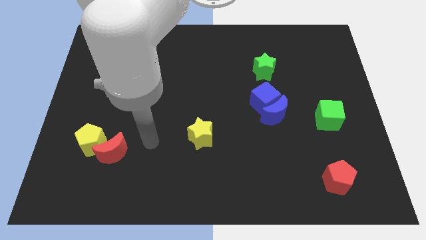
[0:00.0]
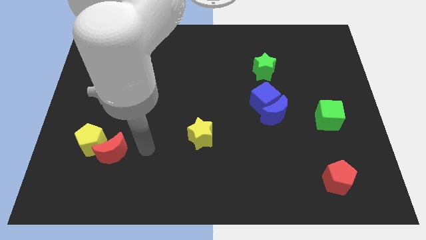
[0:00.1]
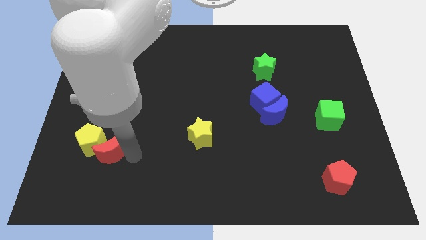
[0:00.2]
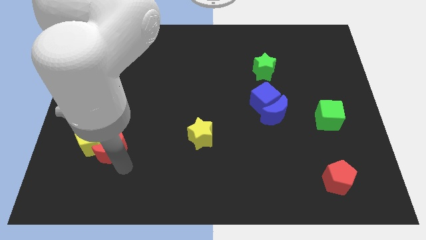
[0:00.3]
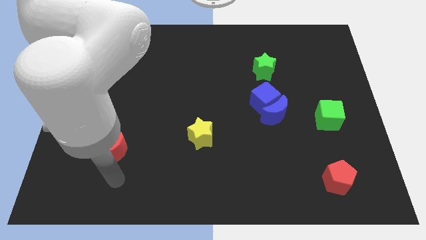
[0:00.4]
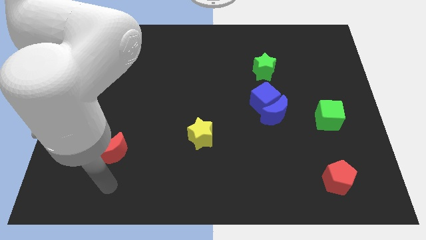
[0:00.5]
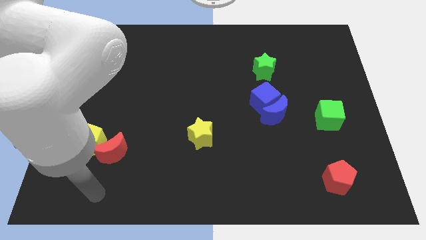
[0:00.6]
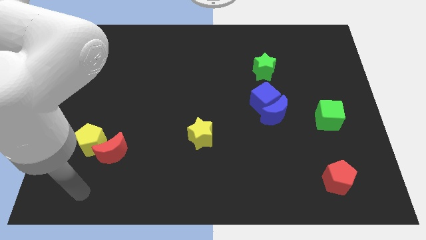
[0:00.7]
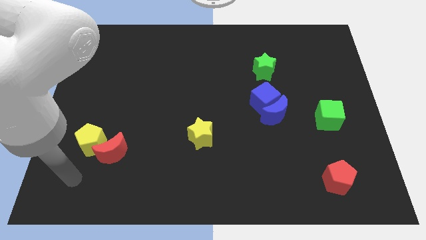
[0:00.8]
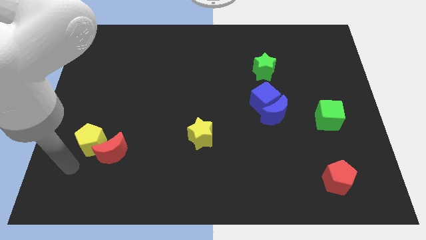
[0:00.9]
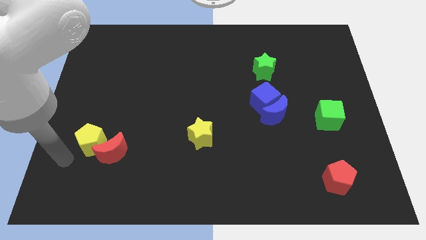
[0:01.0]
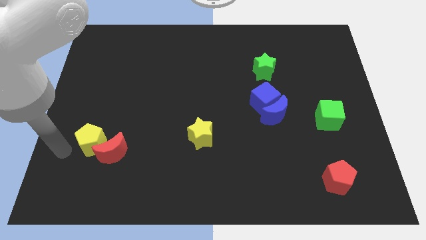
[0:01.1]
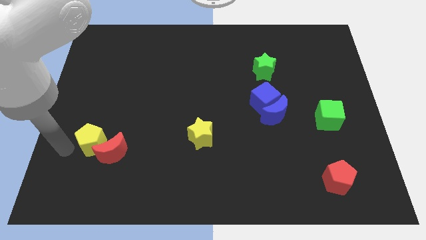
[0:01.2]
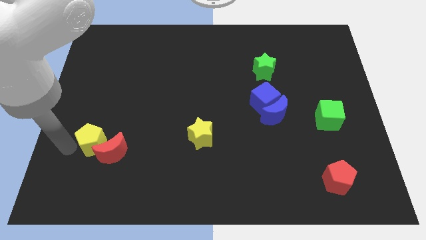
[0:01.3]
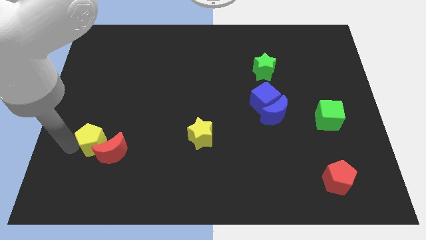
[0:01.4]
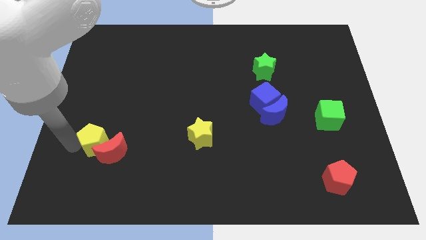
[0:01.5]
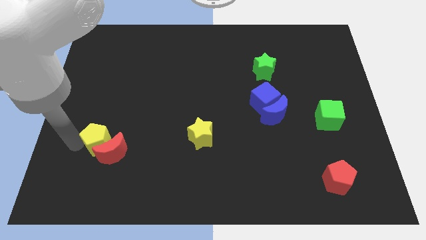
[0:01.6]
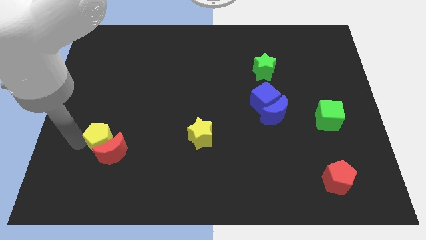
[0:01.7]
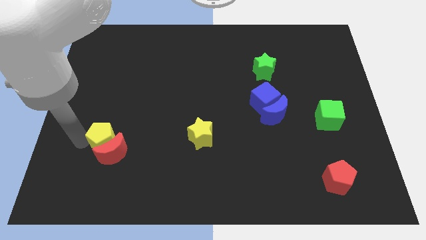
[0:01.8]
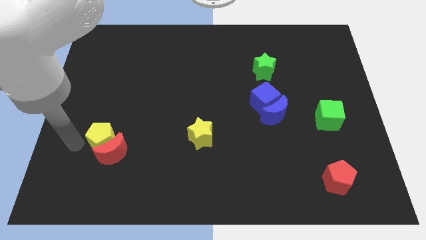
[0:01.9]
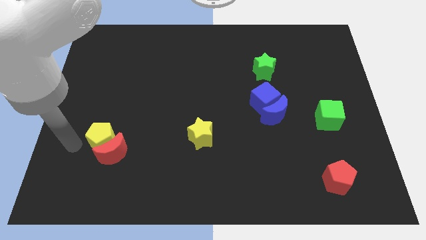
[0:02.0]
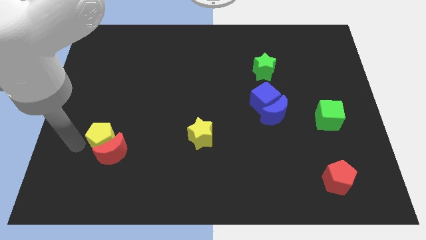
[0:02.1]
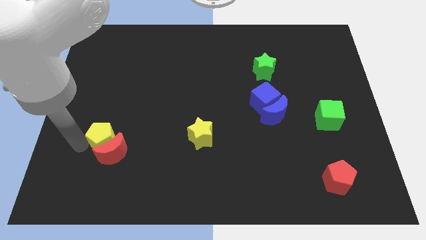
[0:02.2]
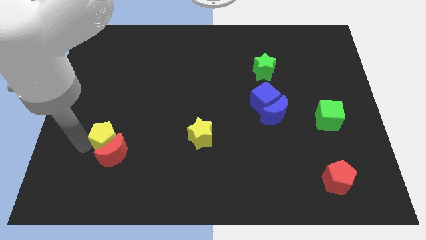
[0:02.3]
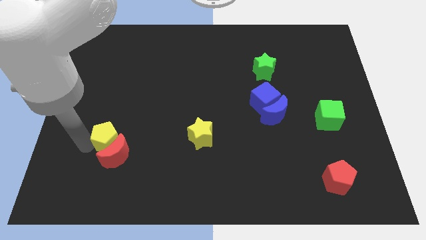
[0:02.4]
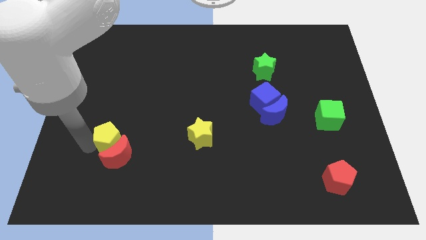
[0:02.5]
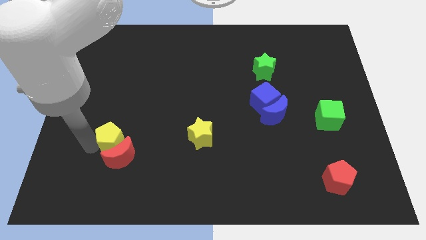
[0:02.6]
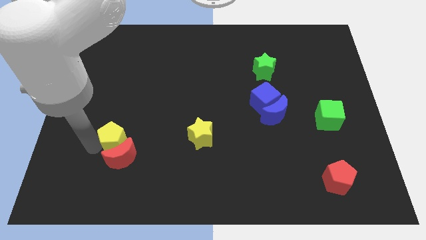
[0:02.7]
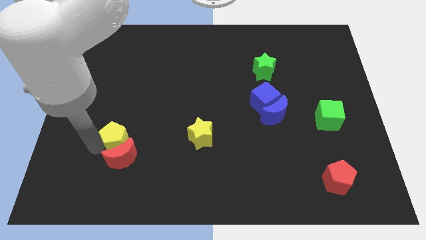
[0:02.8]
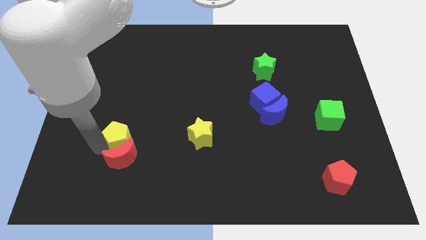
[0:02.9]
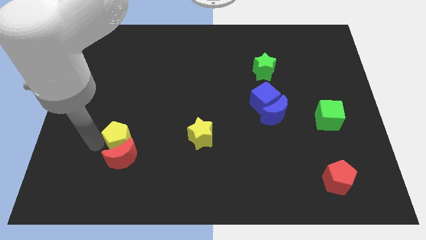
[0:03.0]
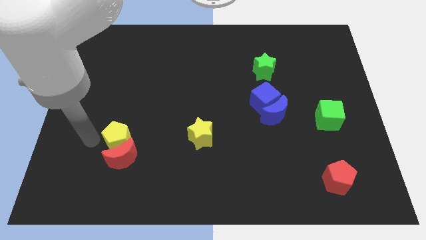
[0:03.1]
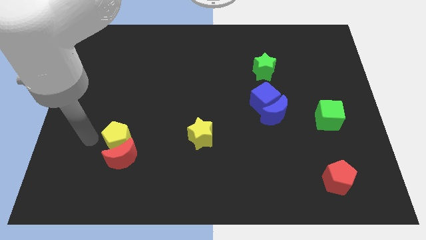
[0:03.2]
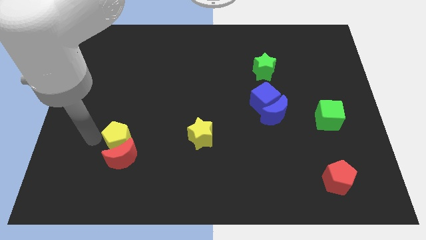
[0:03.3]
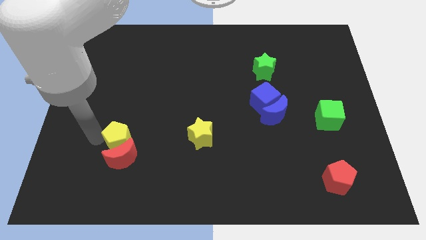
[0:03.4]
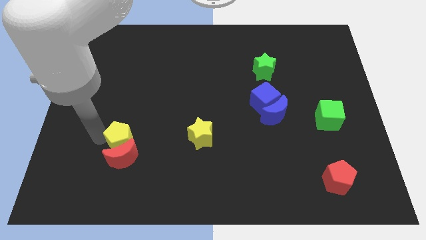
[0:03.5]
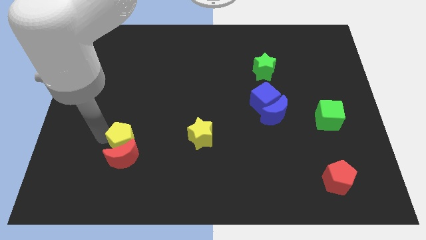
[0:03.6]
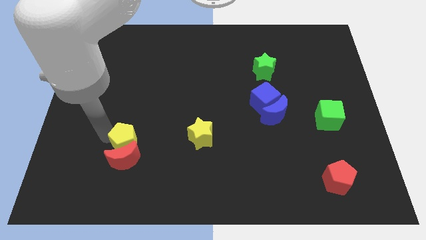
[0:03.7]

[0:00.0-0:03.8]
move the yellow pentagon right somewhat

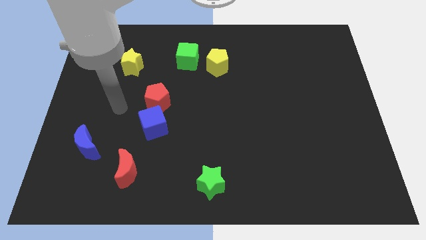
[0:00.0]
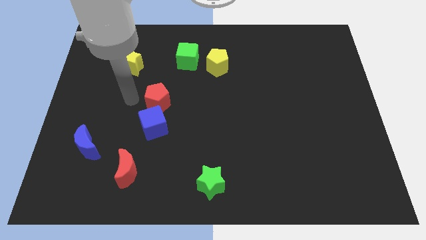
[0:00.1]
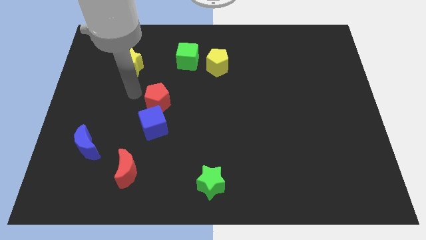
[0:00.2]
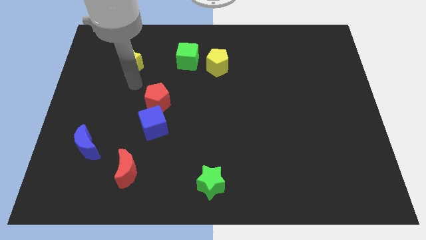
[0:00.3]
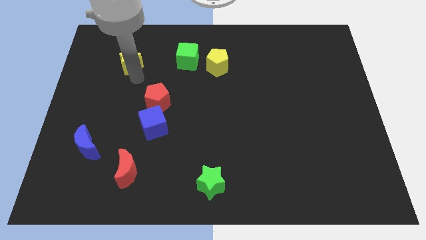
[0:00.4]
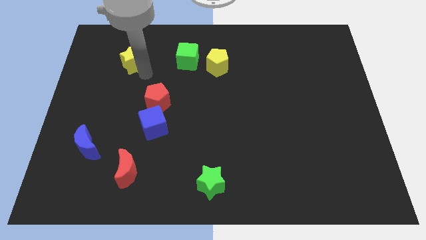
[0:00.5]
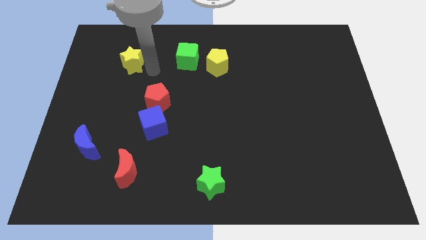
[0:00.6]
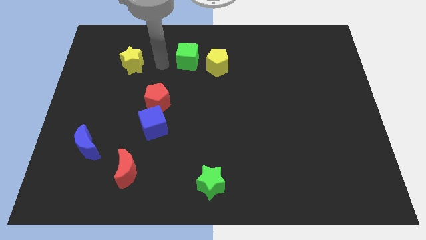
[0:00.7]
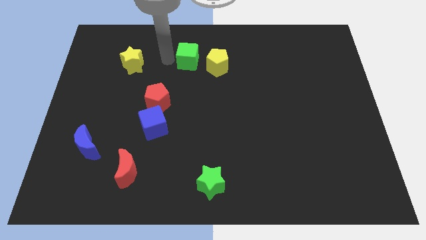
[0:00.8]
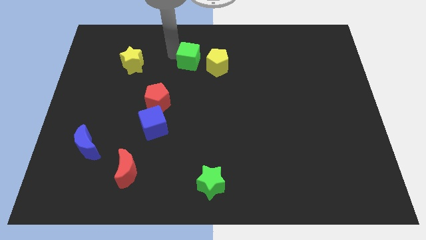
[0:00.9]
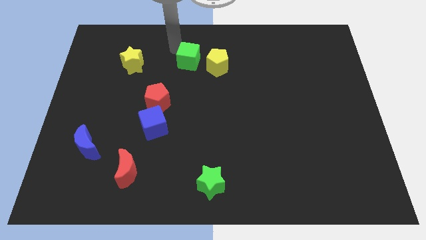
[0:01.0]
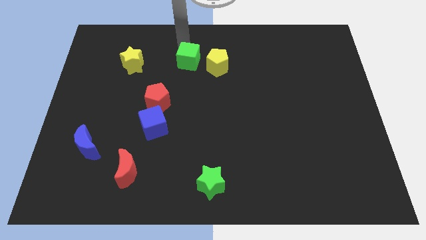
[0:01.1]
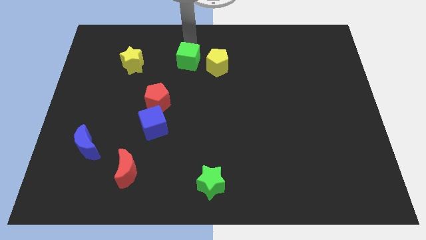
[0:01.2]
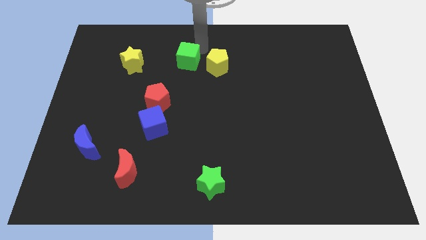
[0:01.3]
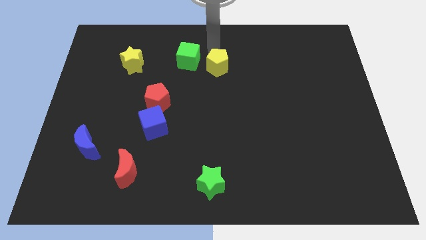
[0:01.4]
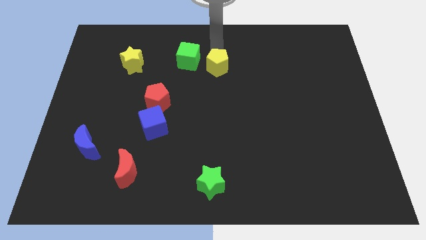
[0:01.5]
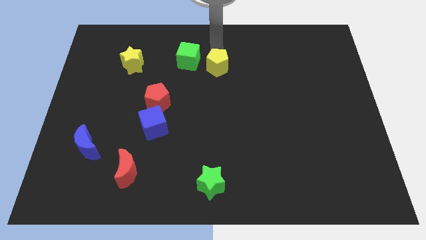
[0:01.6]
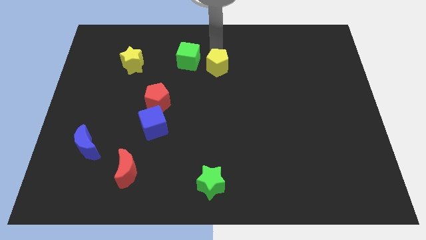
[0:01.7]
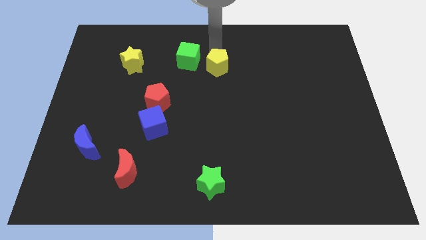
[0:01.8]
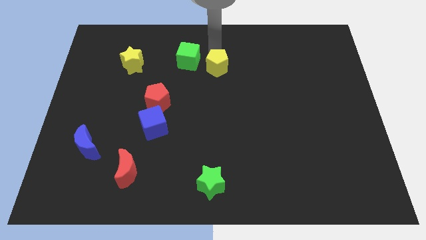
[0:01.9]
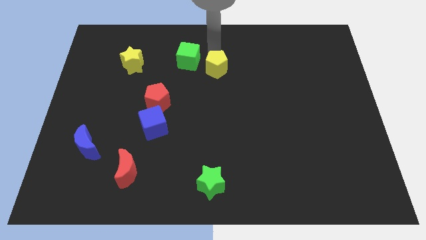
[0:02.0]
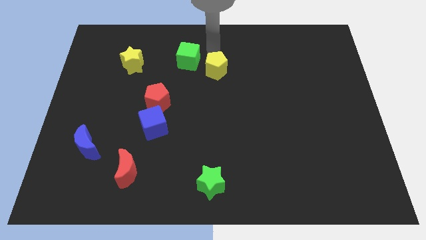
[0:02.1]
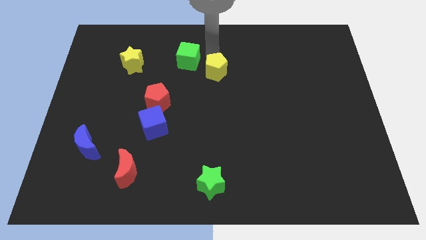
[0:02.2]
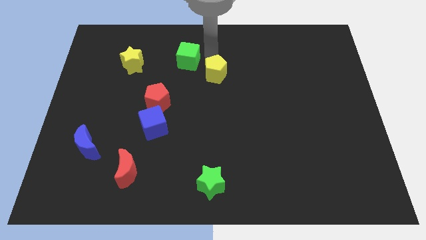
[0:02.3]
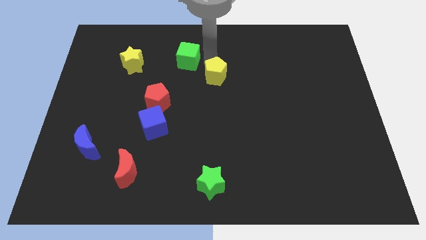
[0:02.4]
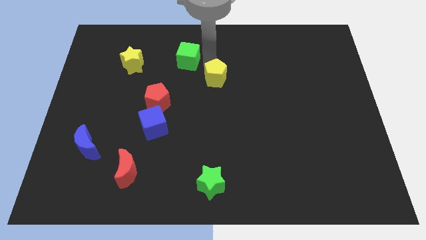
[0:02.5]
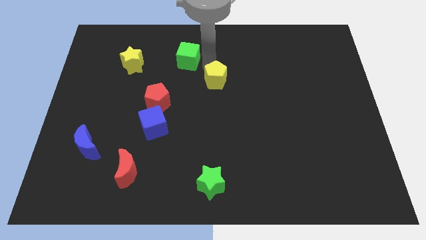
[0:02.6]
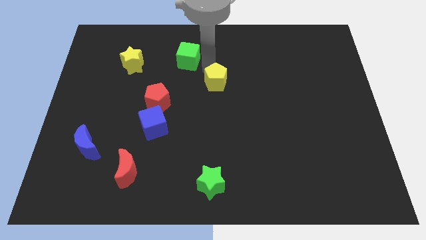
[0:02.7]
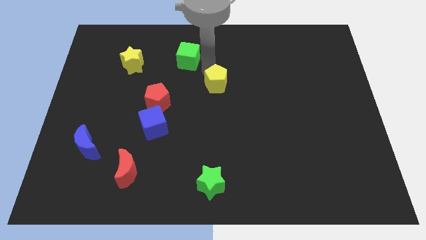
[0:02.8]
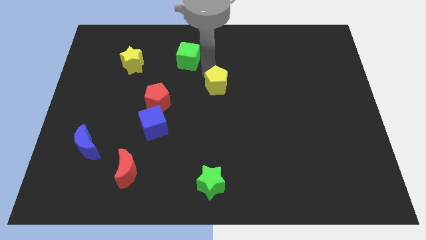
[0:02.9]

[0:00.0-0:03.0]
slide the yellow pentagon a little down

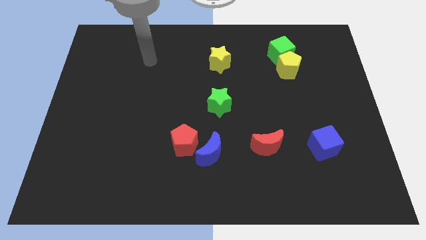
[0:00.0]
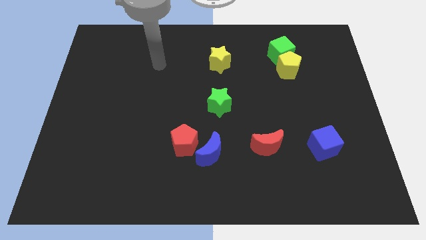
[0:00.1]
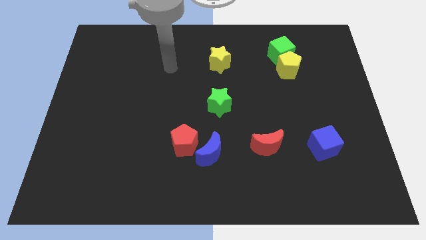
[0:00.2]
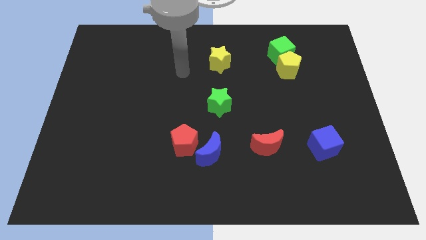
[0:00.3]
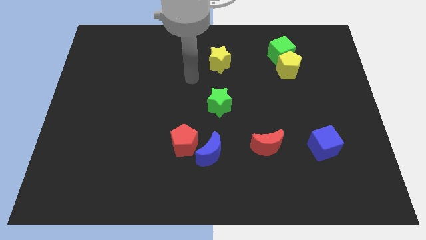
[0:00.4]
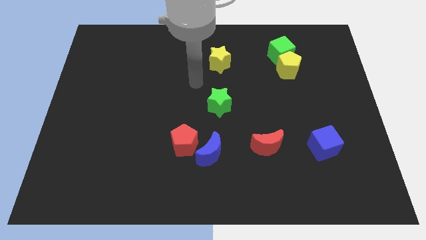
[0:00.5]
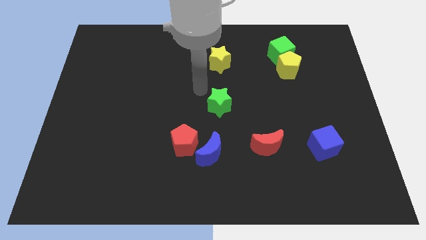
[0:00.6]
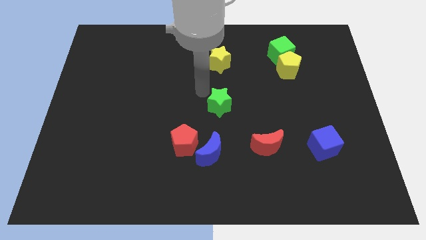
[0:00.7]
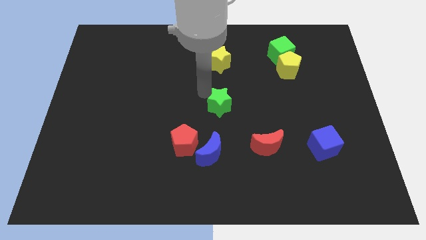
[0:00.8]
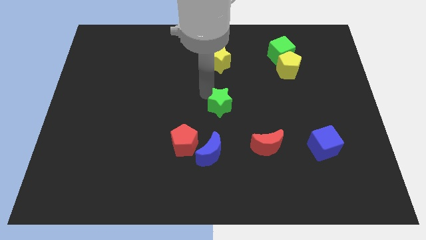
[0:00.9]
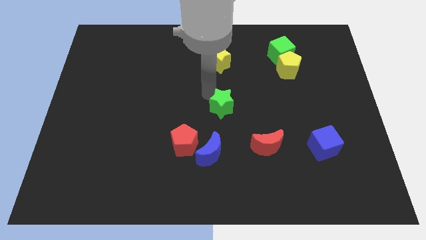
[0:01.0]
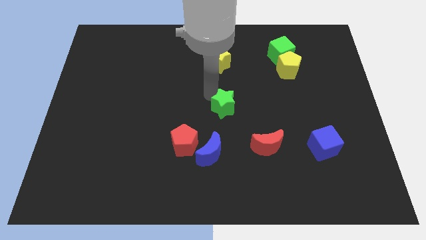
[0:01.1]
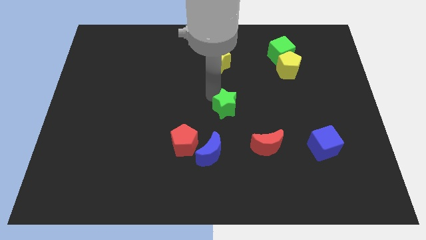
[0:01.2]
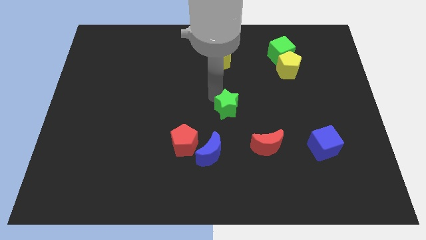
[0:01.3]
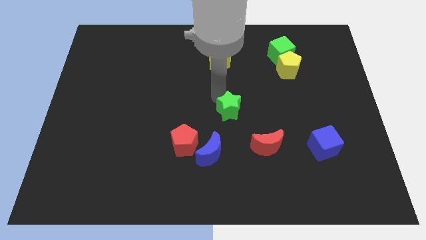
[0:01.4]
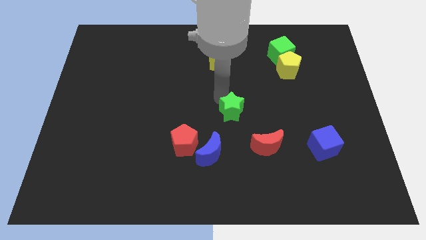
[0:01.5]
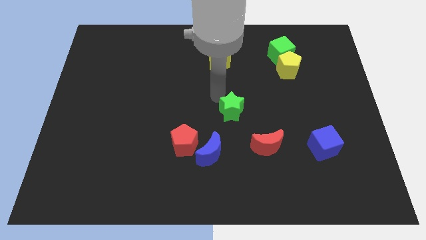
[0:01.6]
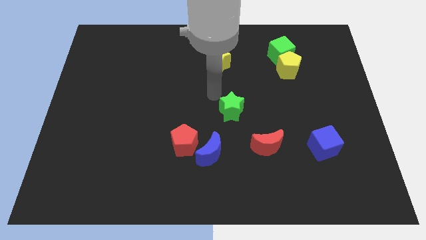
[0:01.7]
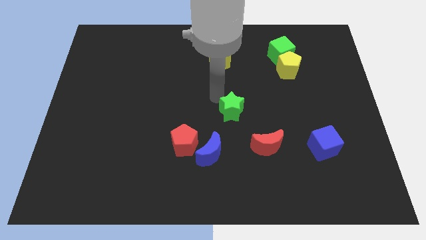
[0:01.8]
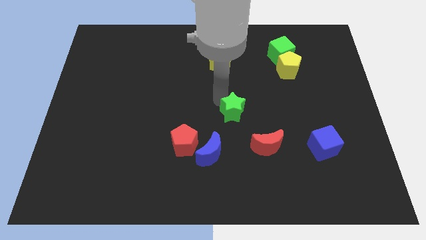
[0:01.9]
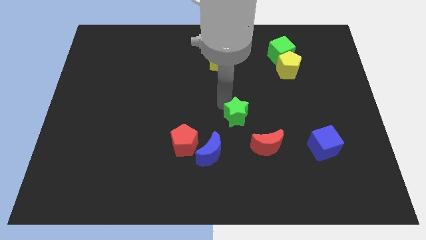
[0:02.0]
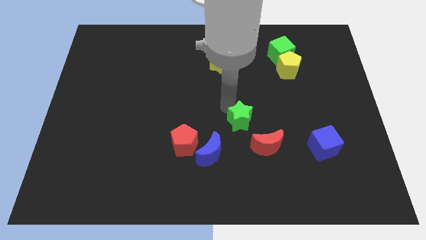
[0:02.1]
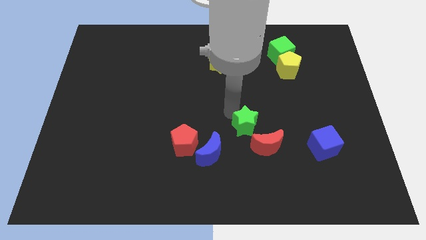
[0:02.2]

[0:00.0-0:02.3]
slightly push the green star downwards and then to the right
